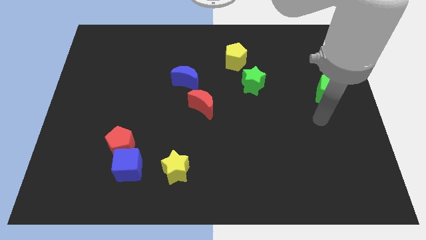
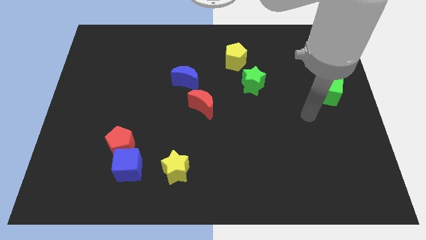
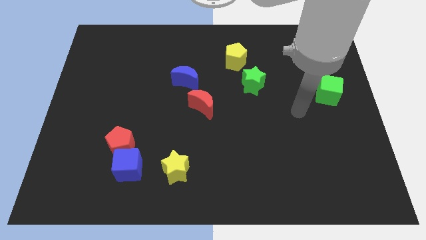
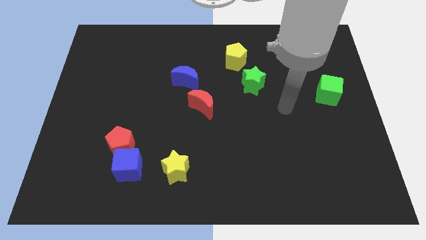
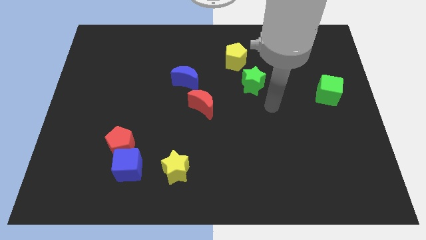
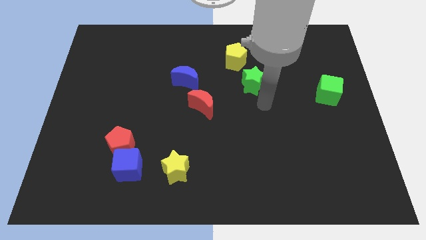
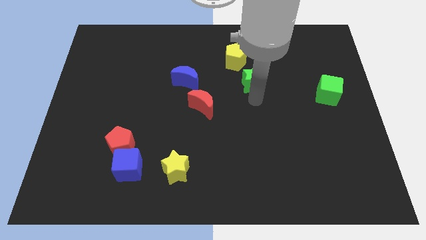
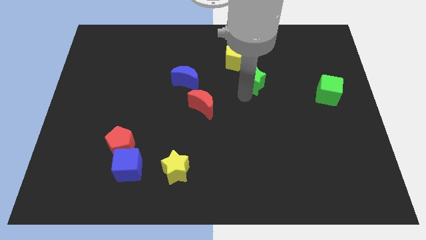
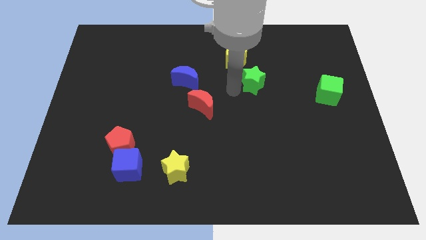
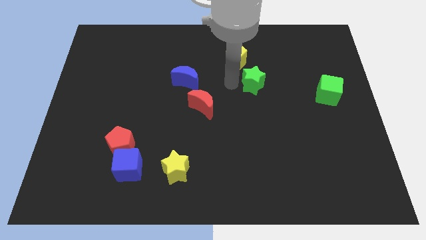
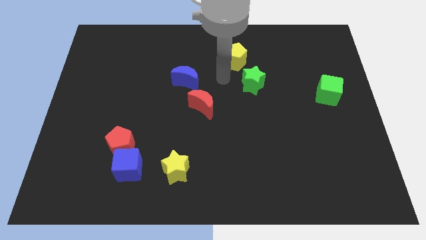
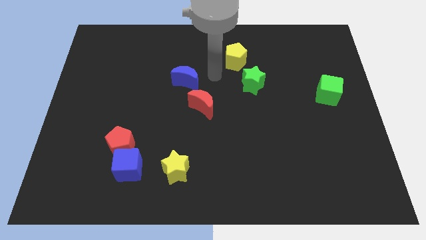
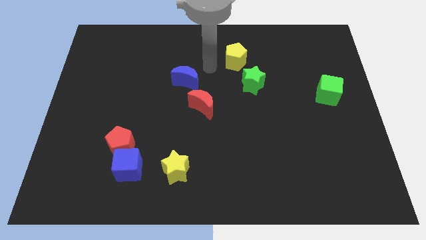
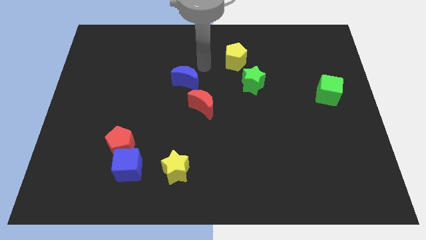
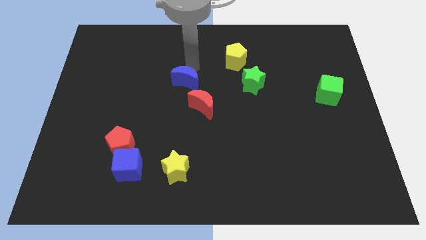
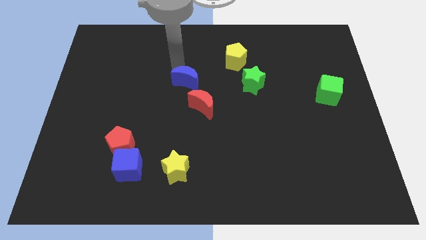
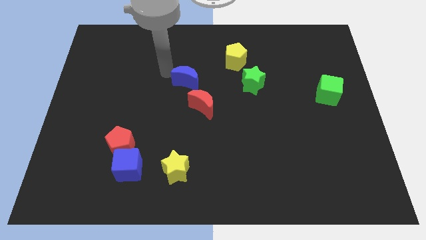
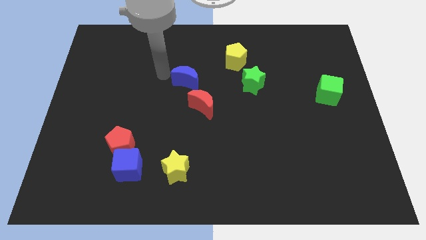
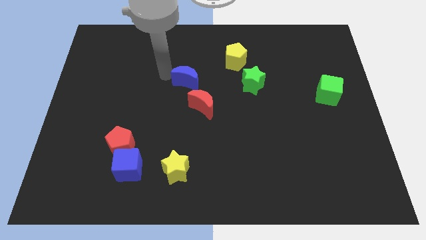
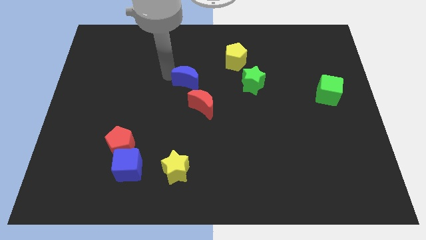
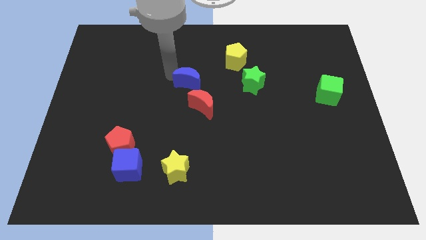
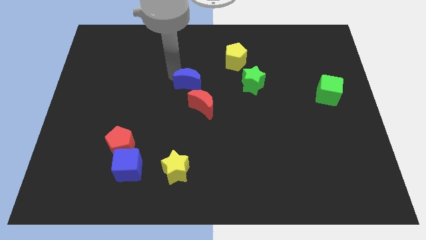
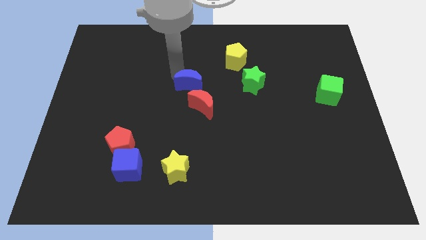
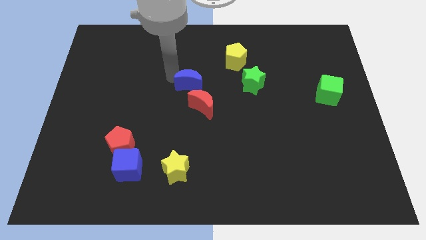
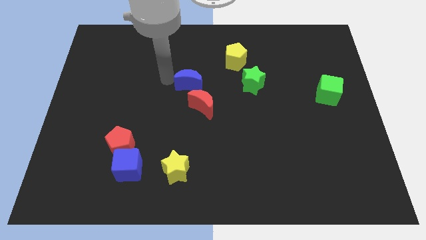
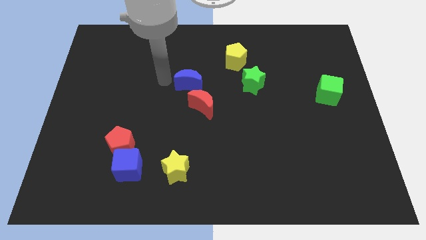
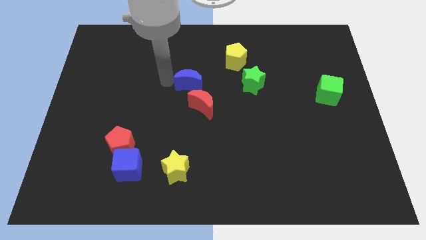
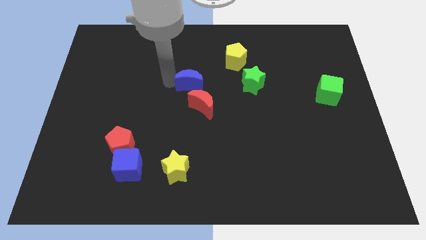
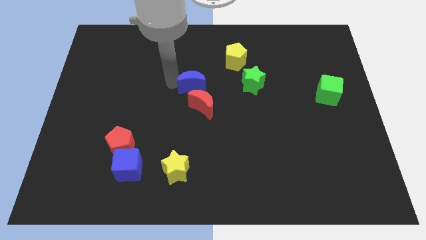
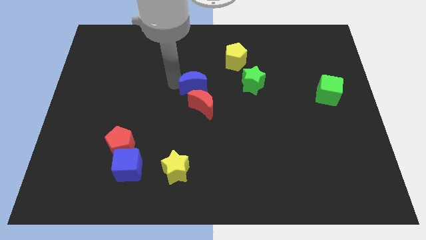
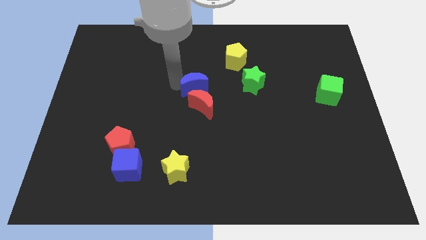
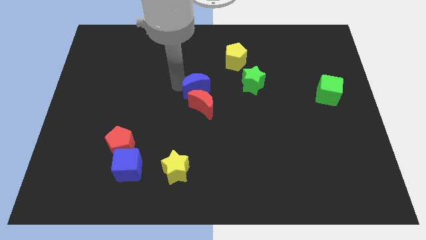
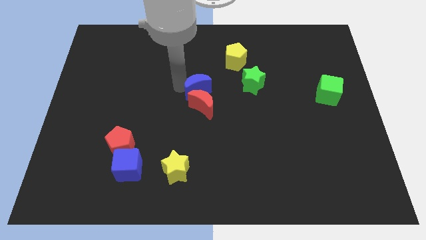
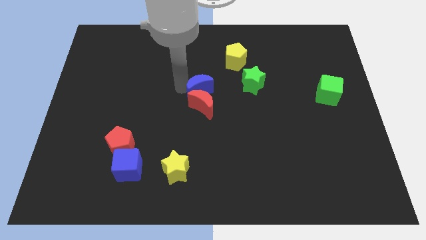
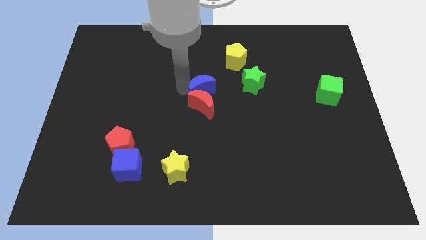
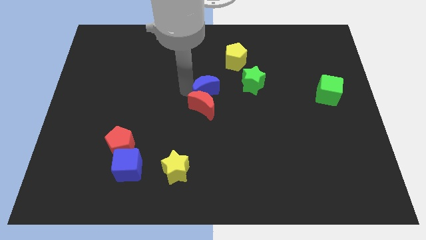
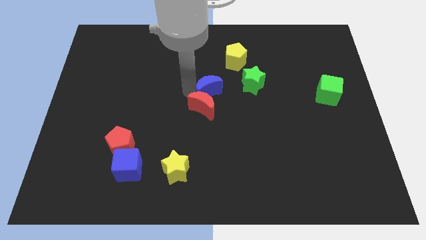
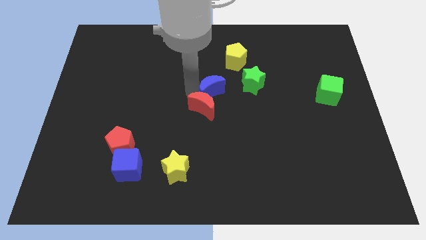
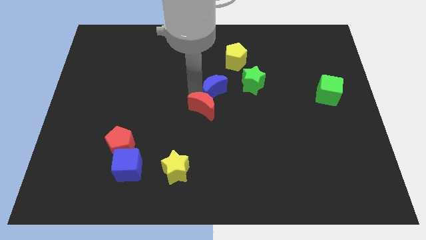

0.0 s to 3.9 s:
slide the blue moon a little down and right diagonally

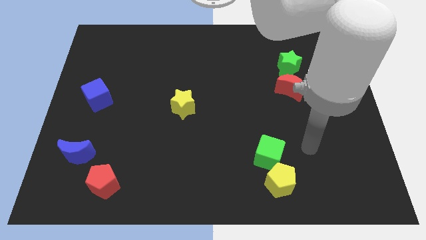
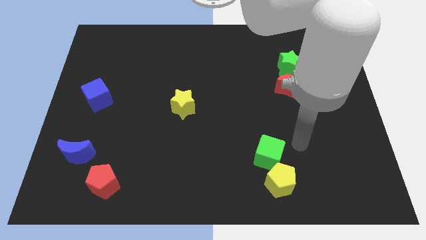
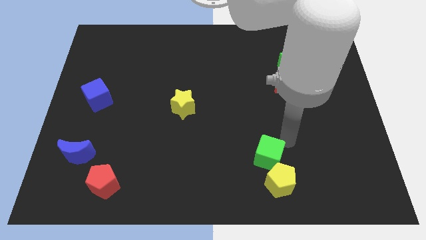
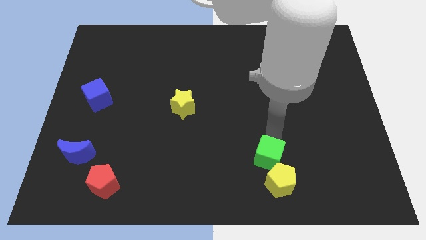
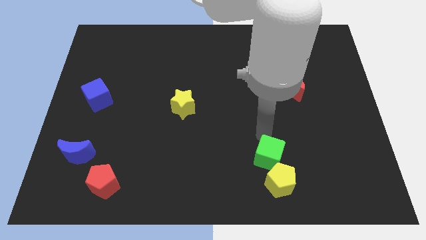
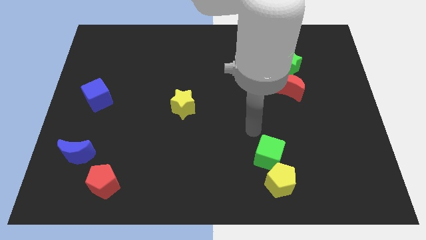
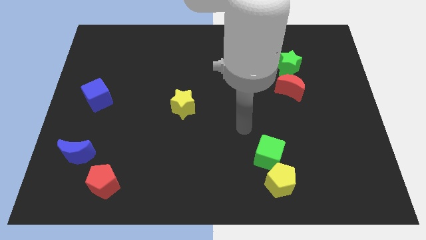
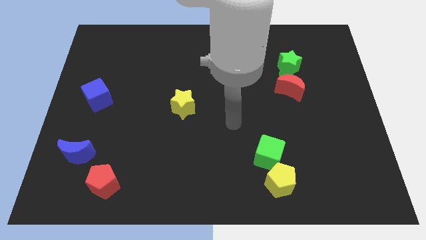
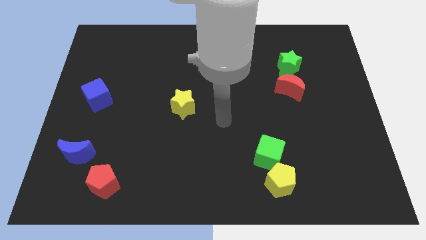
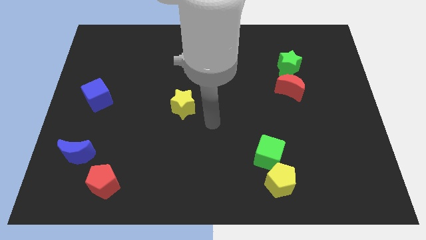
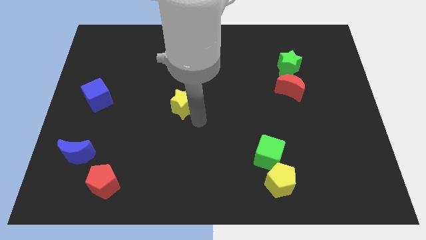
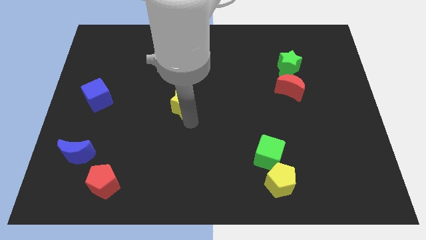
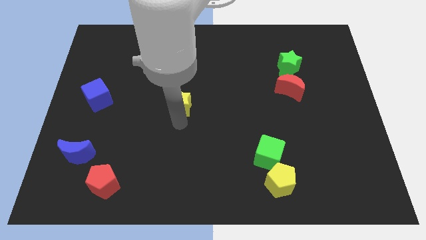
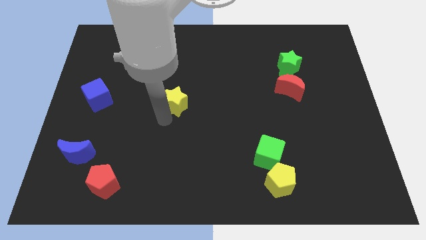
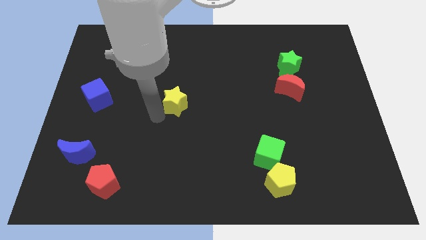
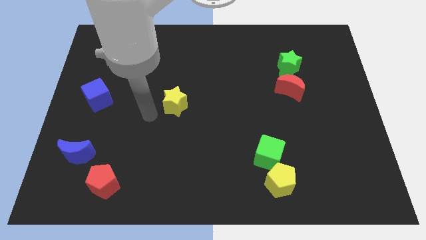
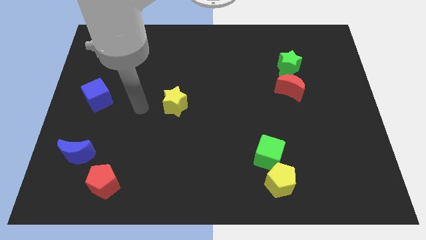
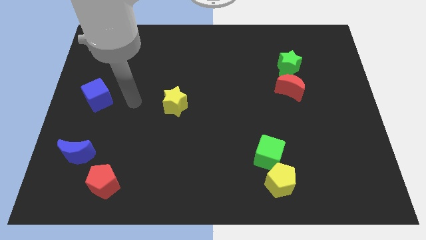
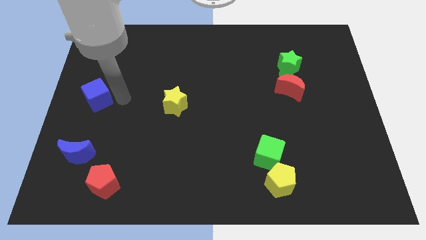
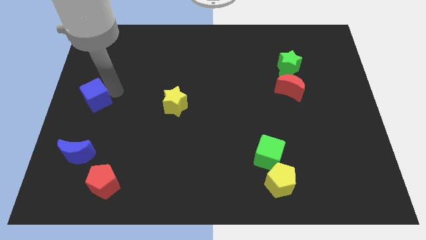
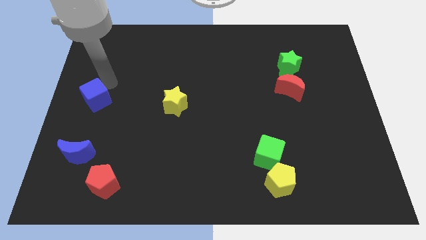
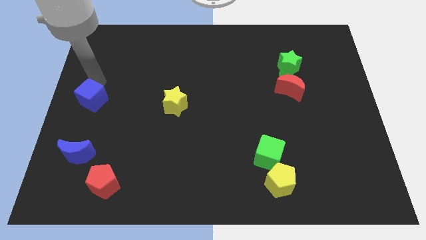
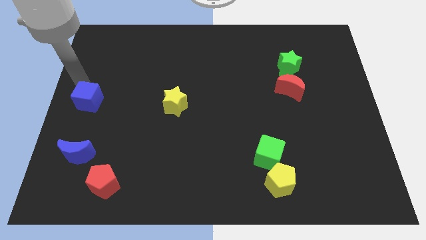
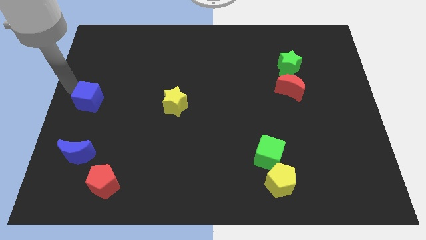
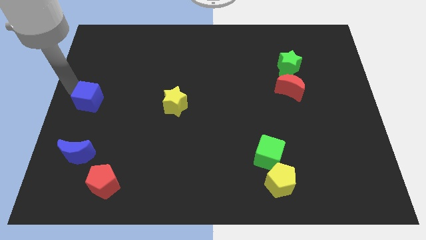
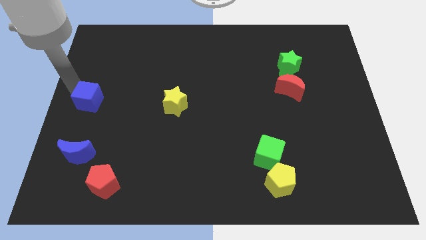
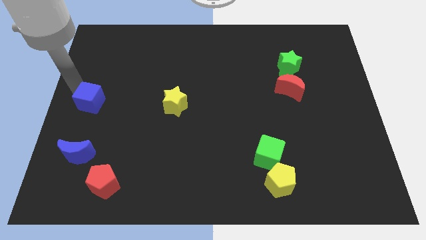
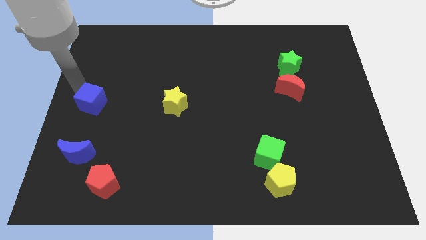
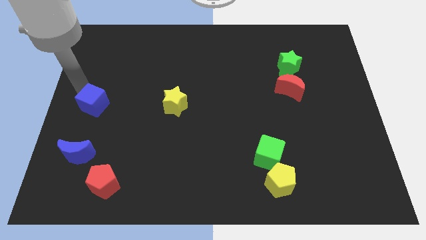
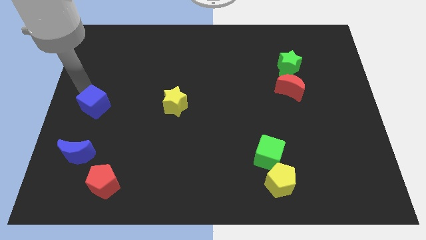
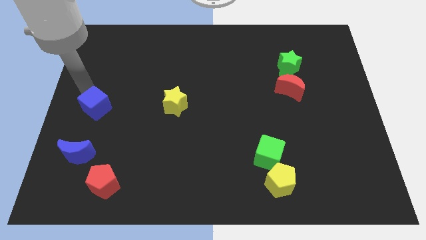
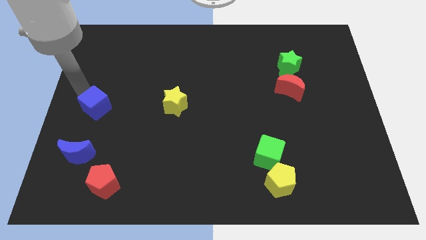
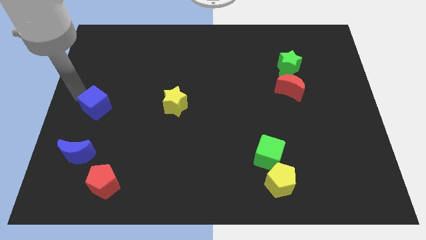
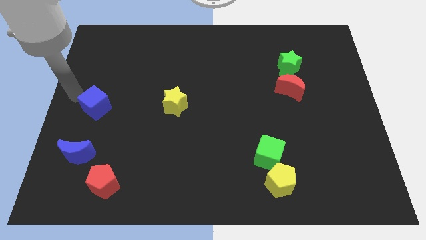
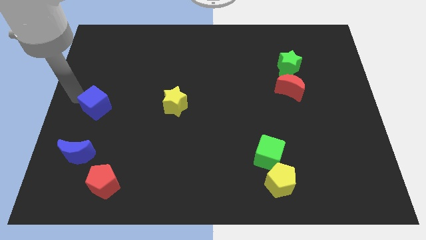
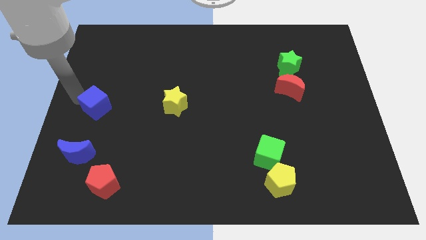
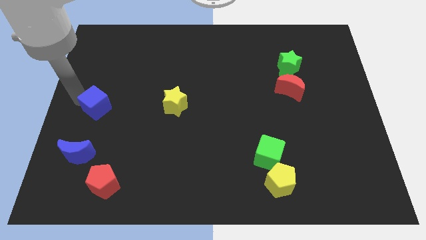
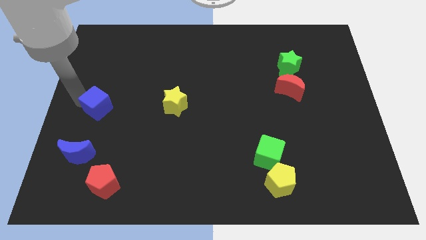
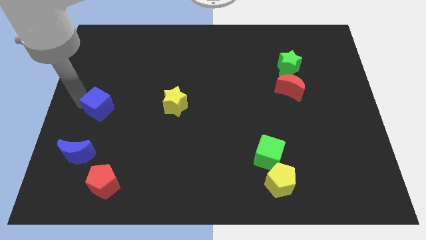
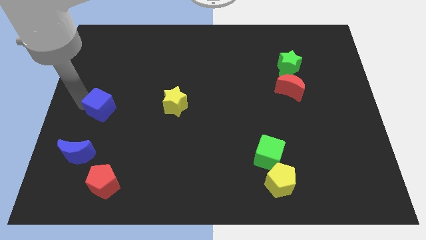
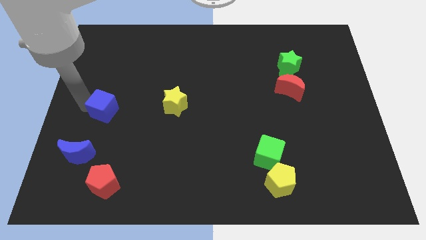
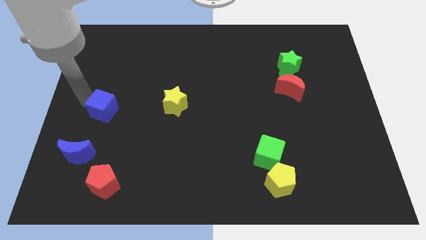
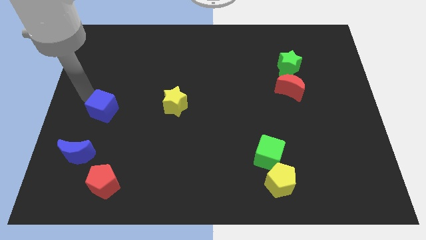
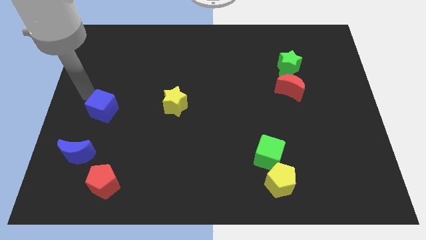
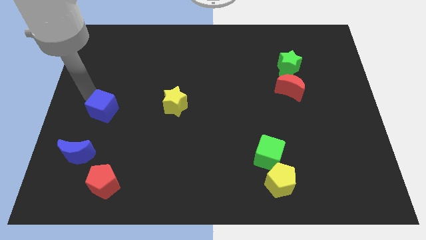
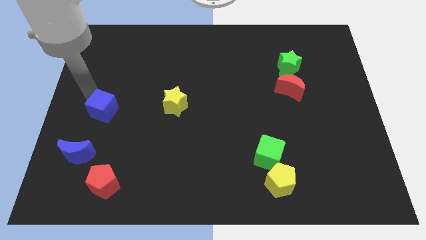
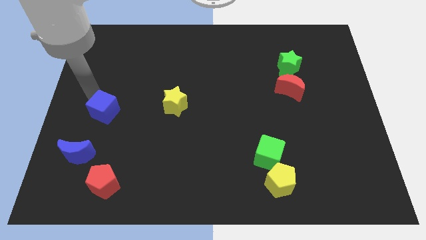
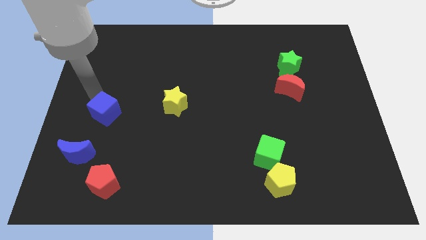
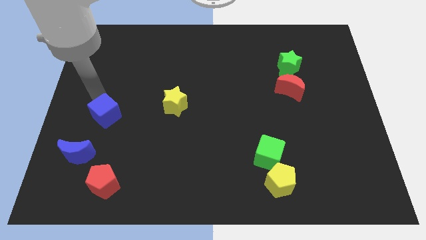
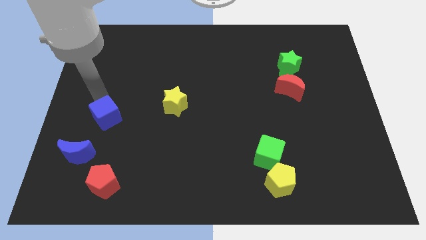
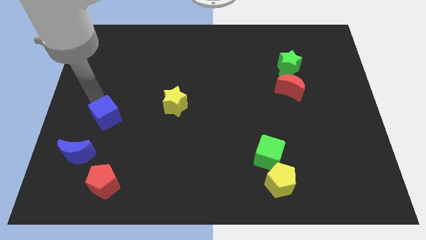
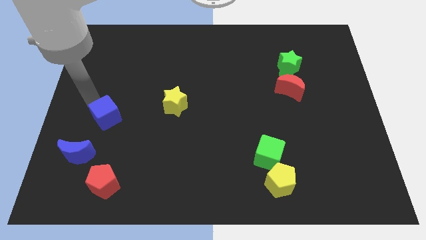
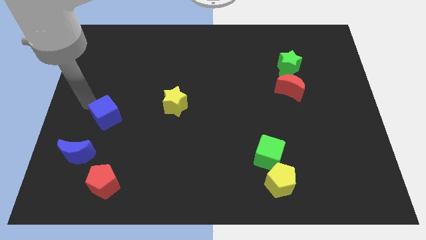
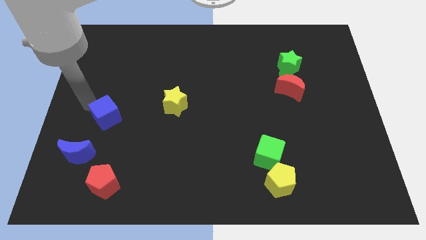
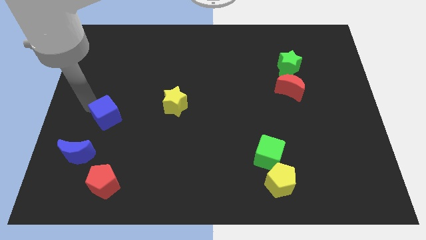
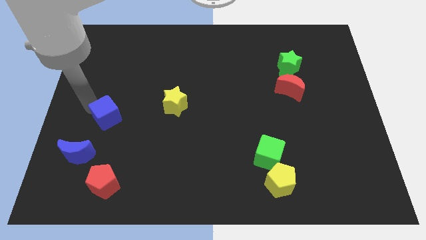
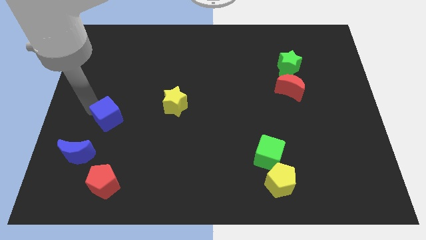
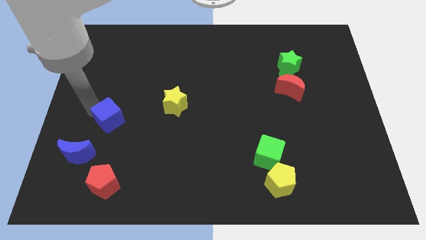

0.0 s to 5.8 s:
slide the blue cube downwards and then right a little
